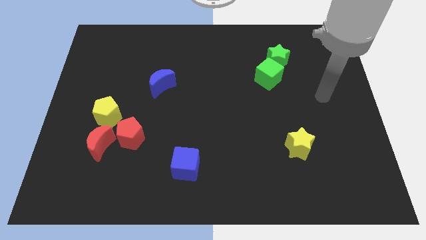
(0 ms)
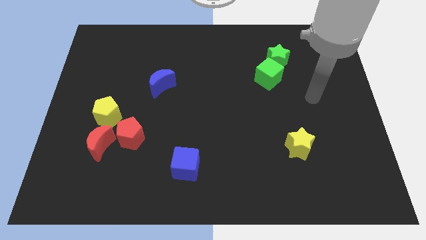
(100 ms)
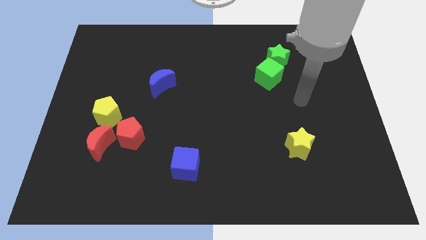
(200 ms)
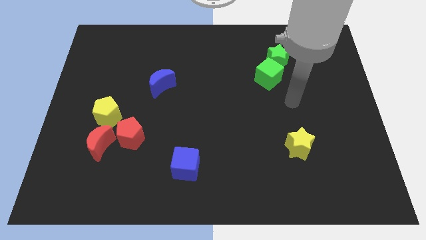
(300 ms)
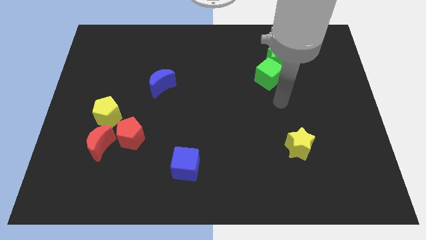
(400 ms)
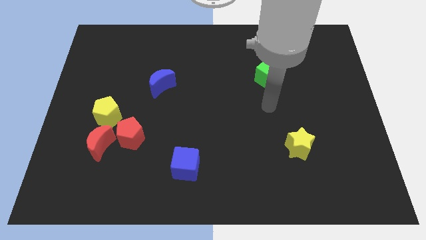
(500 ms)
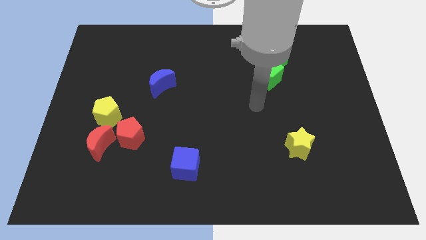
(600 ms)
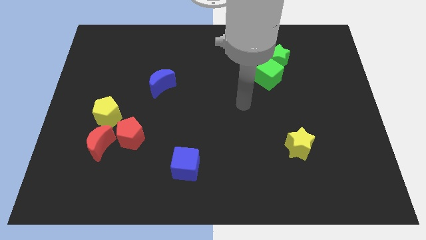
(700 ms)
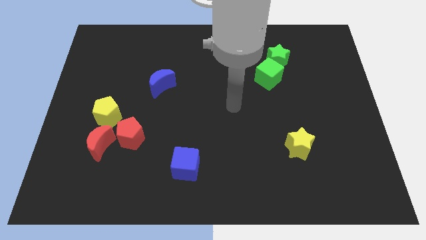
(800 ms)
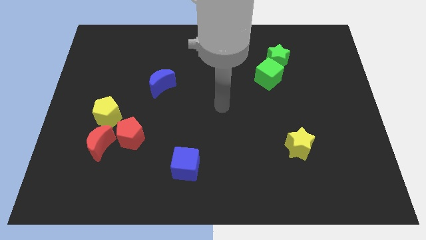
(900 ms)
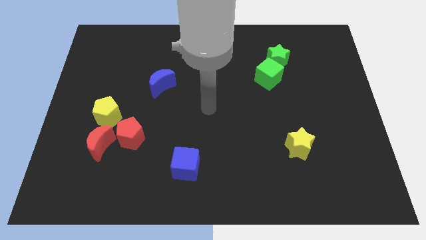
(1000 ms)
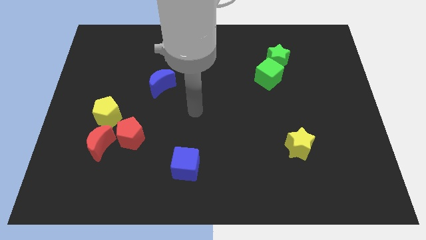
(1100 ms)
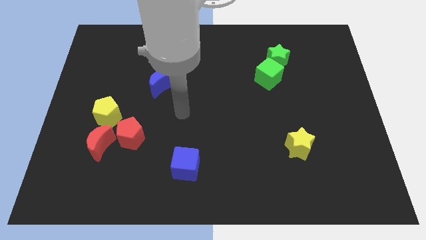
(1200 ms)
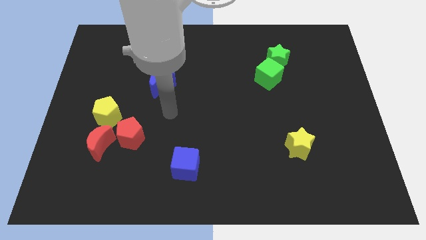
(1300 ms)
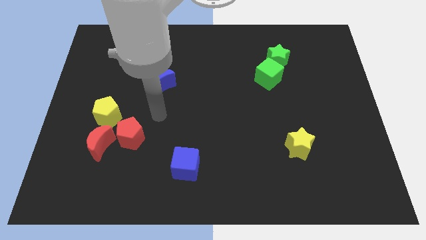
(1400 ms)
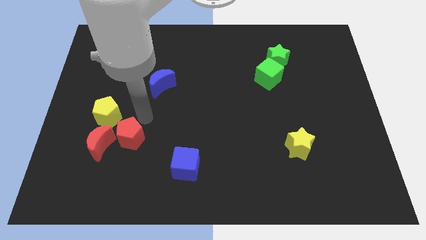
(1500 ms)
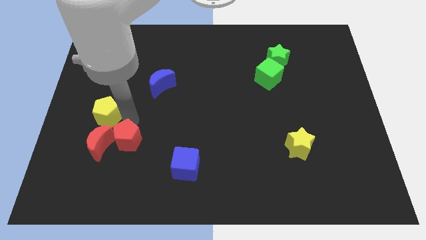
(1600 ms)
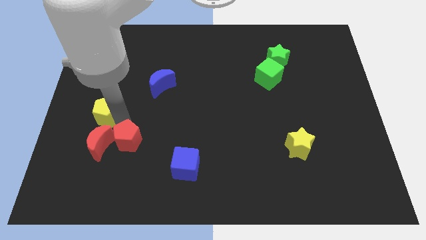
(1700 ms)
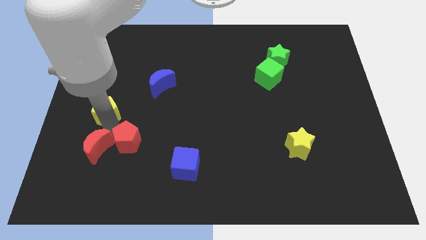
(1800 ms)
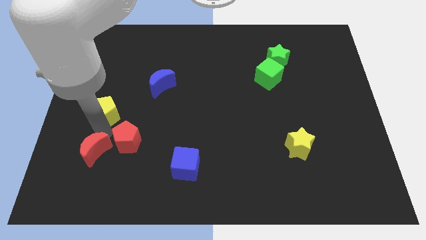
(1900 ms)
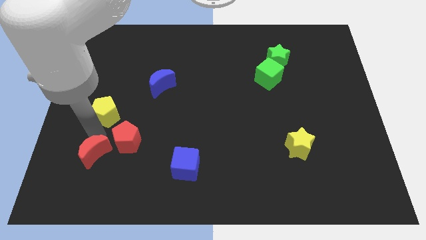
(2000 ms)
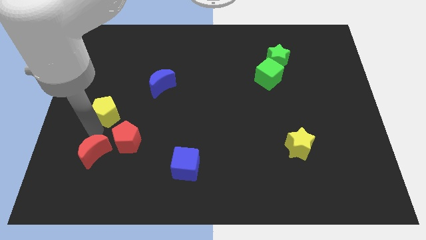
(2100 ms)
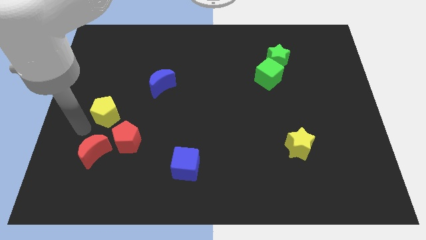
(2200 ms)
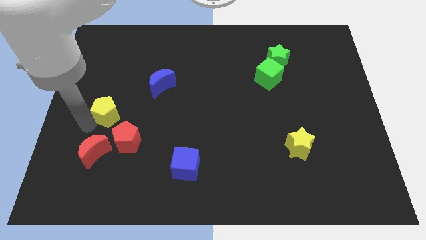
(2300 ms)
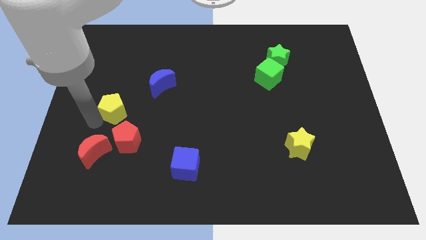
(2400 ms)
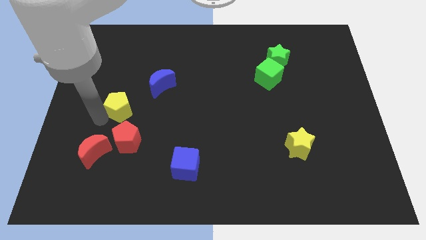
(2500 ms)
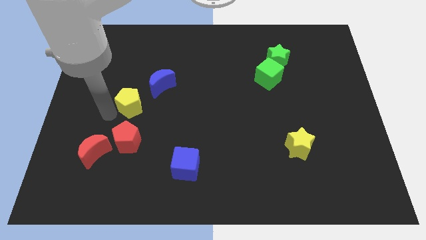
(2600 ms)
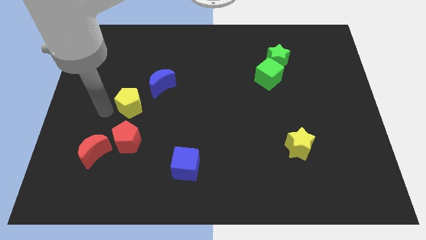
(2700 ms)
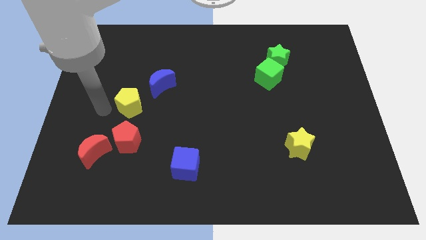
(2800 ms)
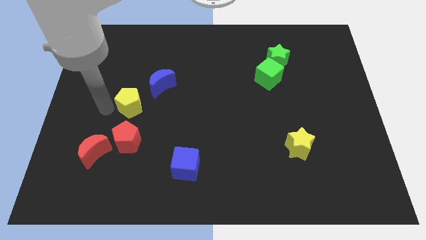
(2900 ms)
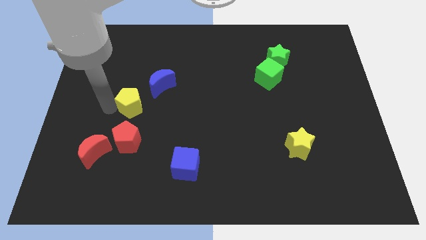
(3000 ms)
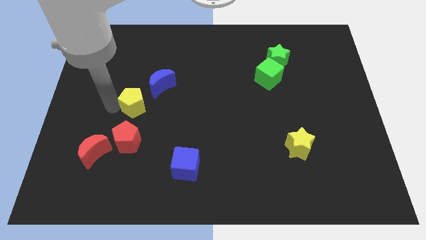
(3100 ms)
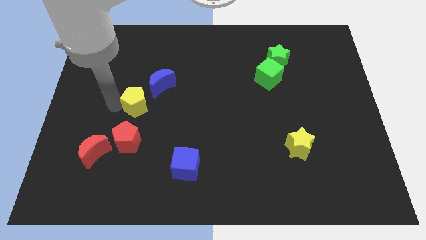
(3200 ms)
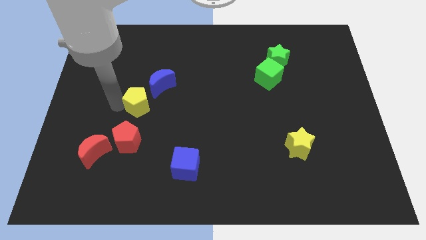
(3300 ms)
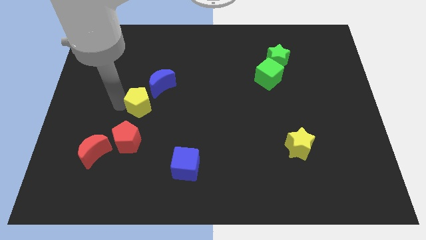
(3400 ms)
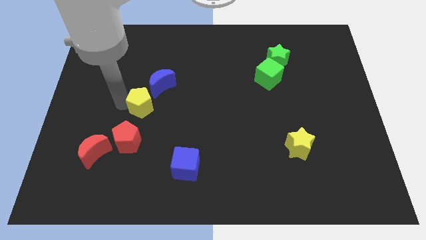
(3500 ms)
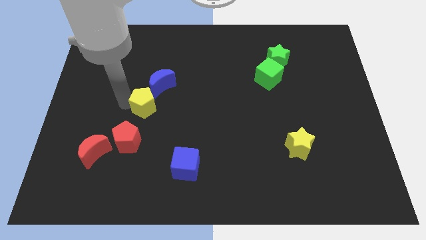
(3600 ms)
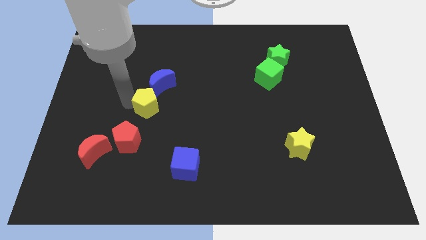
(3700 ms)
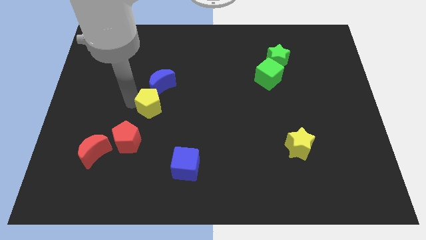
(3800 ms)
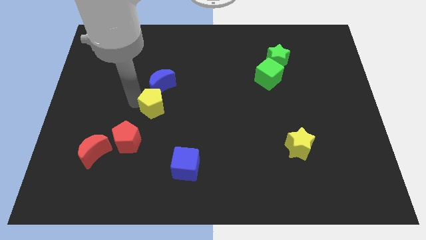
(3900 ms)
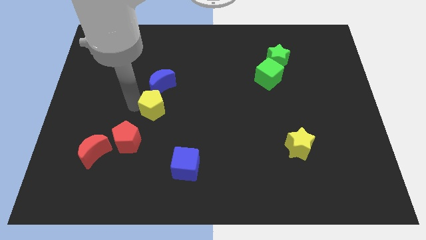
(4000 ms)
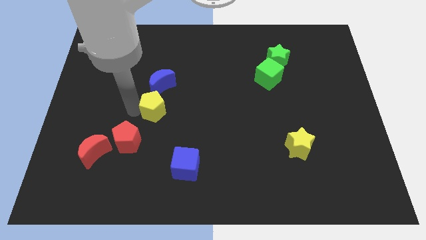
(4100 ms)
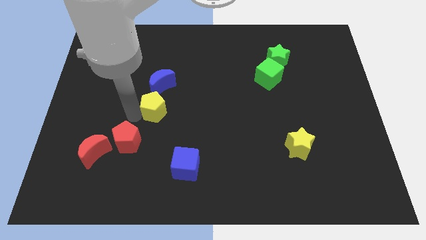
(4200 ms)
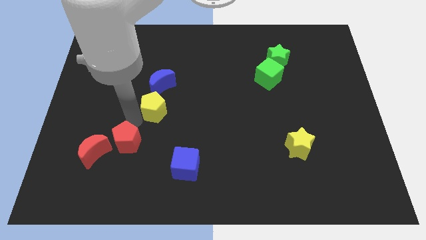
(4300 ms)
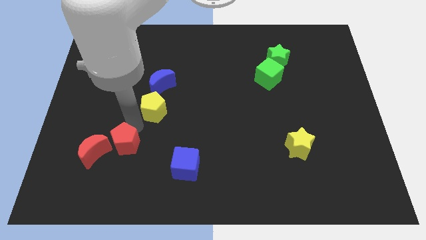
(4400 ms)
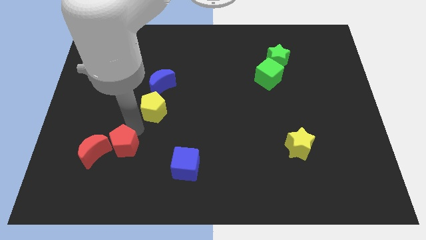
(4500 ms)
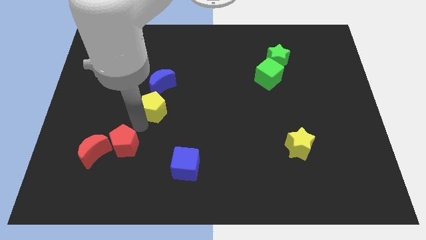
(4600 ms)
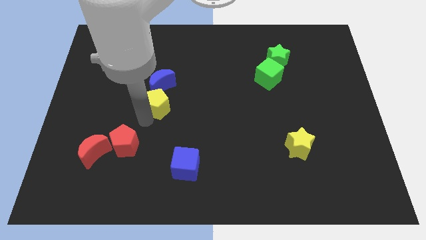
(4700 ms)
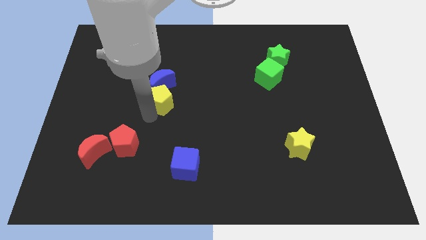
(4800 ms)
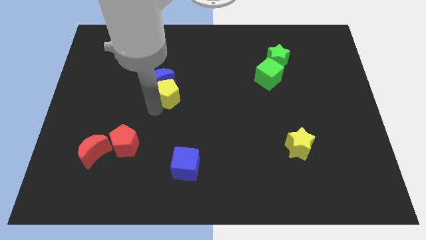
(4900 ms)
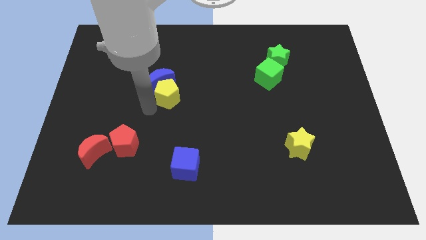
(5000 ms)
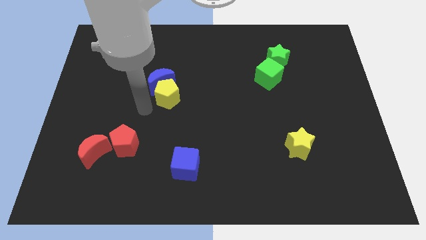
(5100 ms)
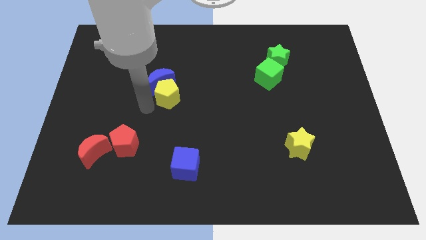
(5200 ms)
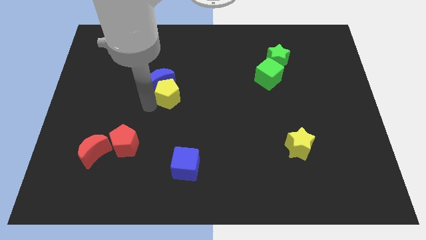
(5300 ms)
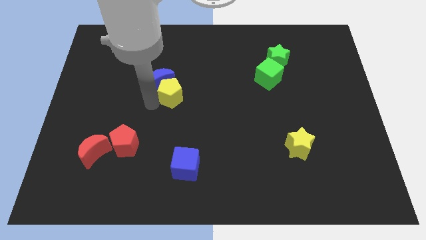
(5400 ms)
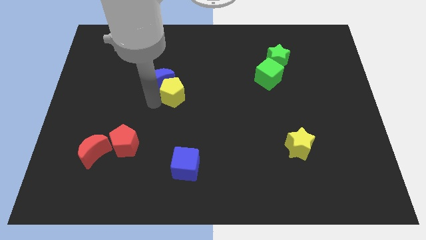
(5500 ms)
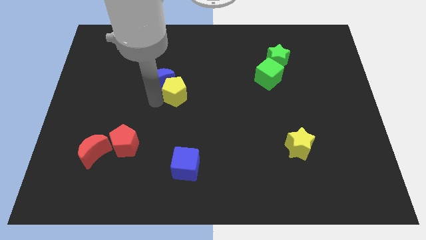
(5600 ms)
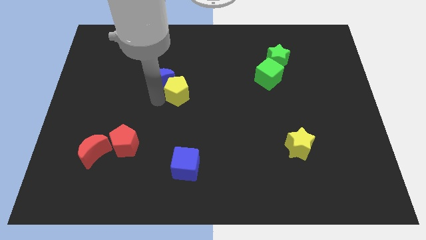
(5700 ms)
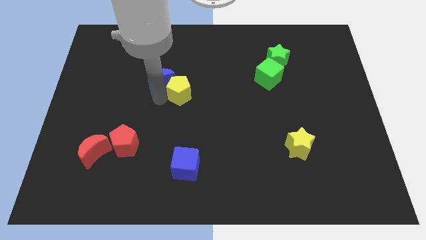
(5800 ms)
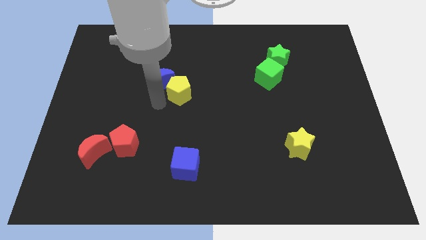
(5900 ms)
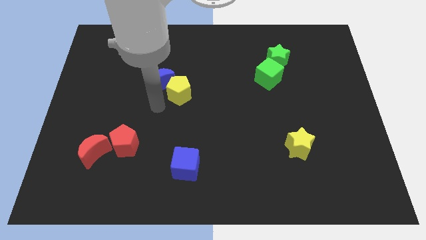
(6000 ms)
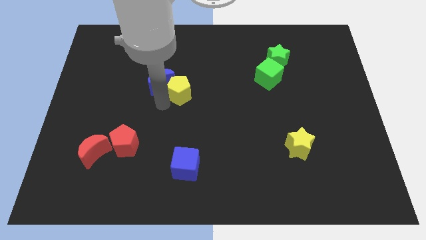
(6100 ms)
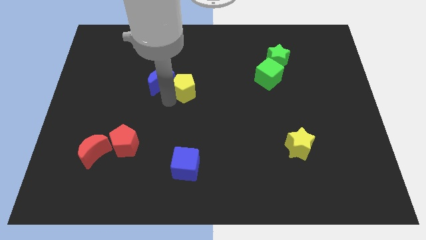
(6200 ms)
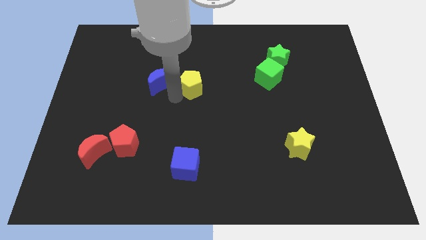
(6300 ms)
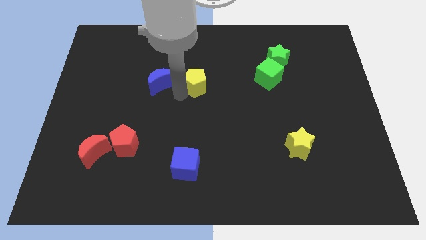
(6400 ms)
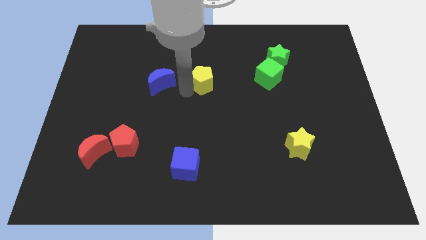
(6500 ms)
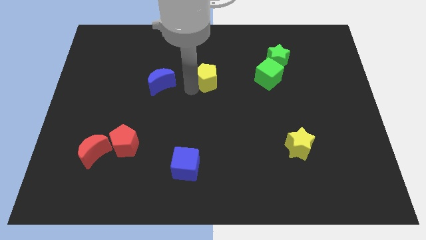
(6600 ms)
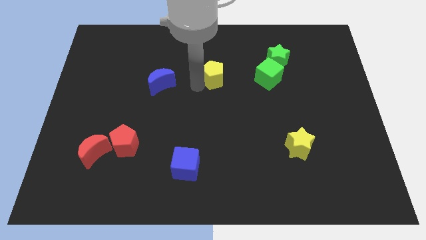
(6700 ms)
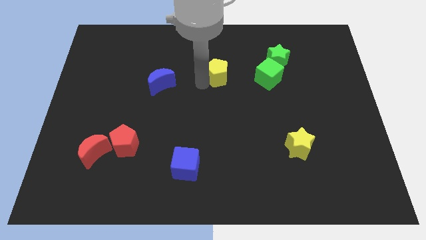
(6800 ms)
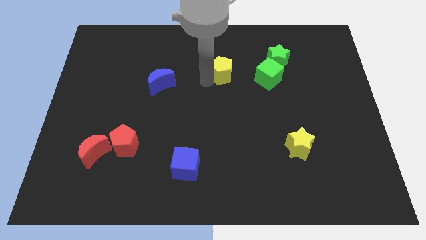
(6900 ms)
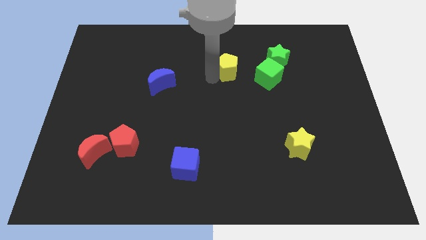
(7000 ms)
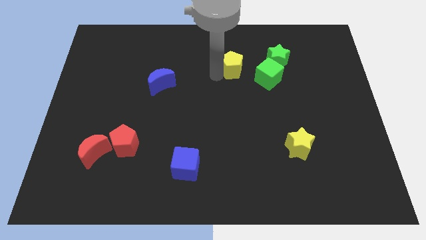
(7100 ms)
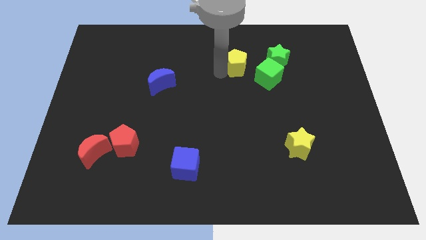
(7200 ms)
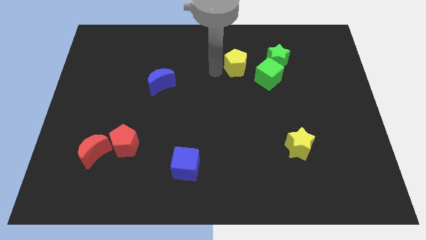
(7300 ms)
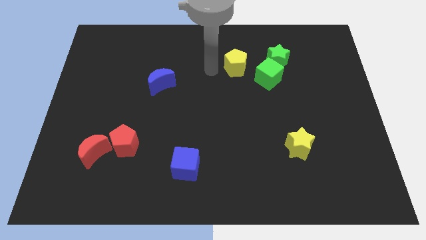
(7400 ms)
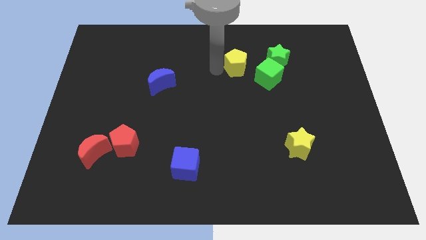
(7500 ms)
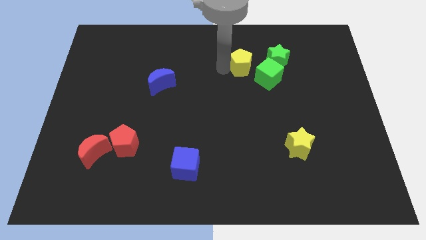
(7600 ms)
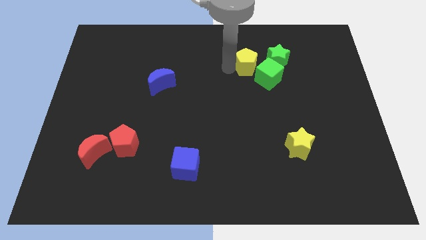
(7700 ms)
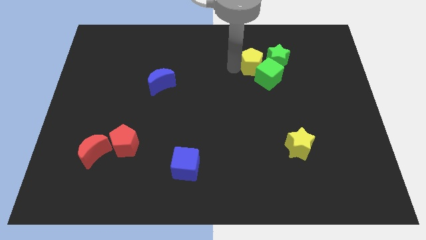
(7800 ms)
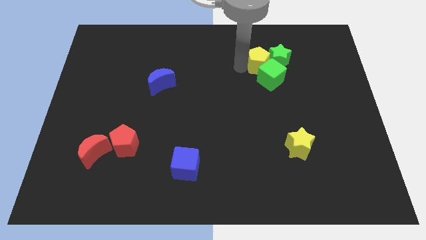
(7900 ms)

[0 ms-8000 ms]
push the yellow pentagon close to the green star
